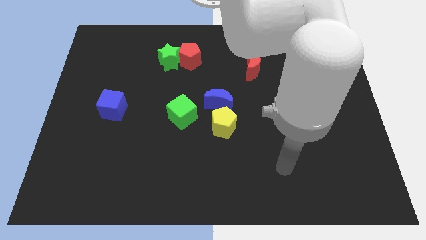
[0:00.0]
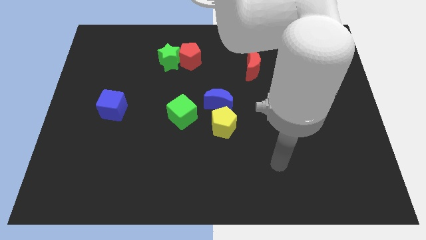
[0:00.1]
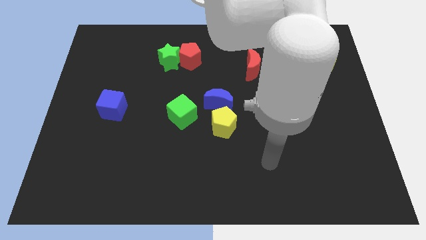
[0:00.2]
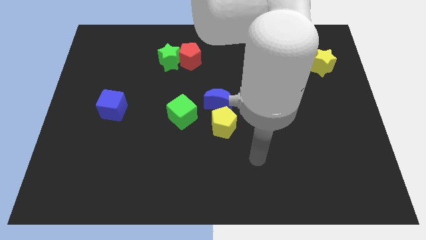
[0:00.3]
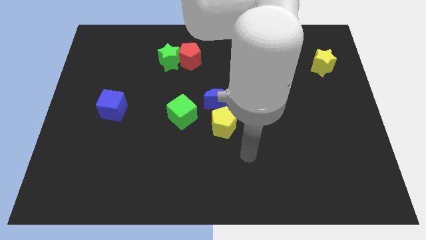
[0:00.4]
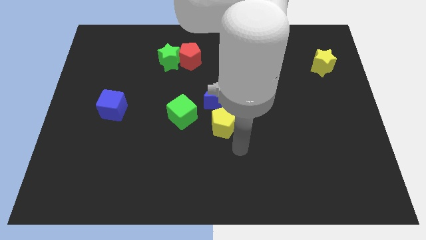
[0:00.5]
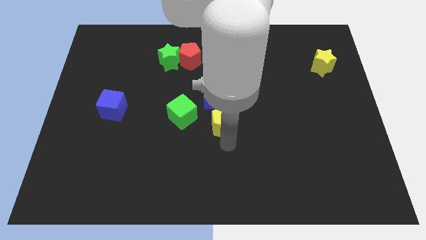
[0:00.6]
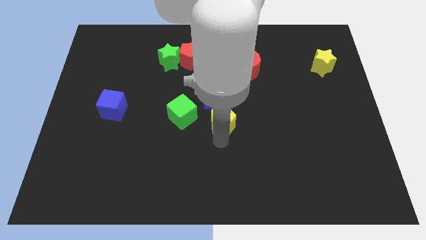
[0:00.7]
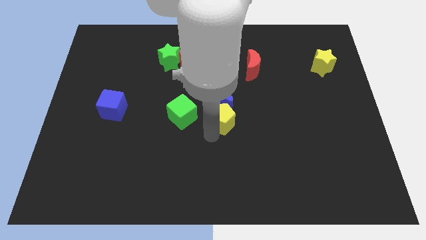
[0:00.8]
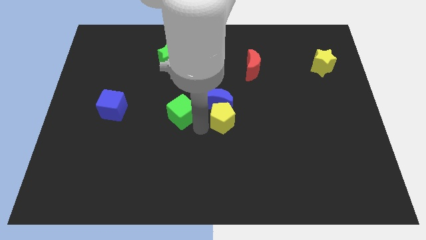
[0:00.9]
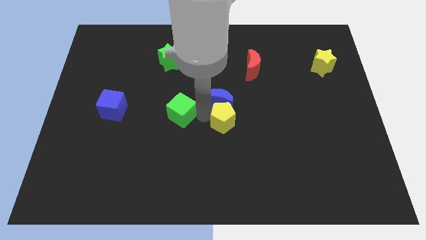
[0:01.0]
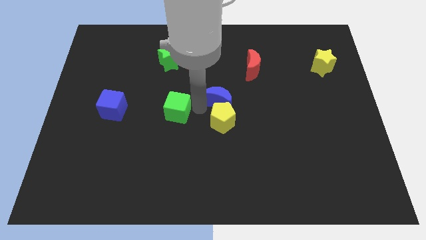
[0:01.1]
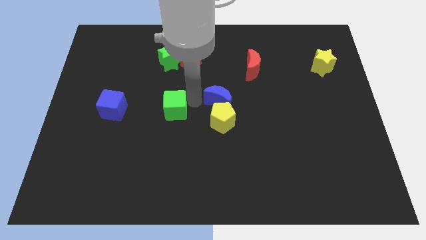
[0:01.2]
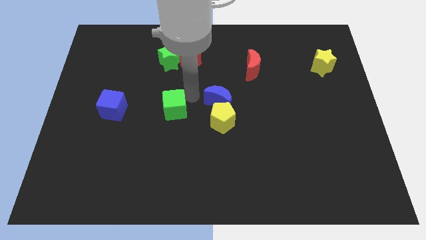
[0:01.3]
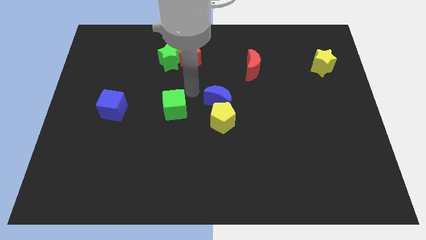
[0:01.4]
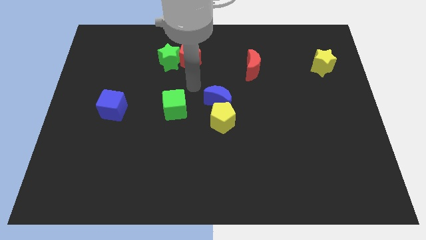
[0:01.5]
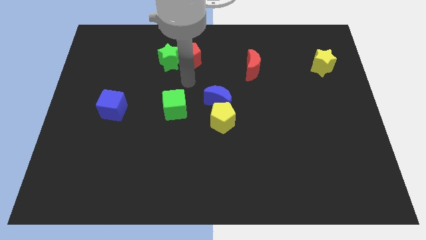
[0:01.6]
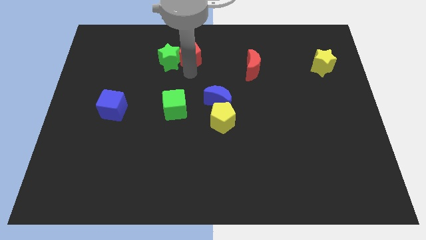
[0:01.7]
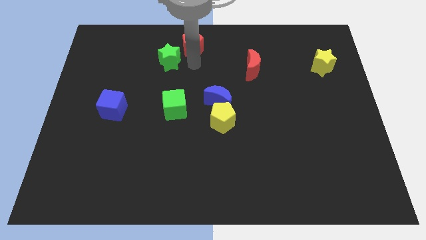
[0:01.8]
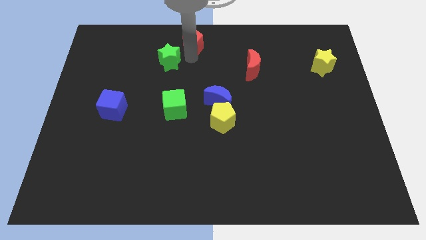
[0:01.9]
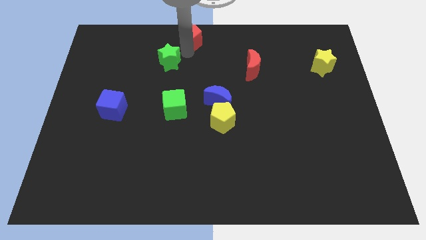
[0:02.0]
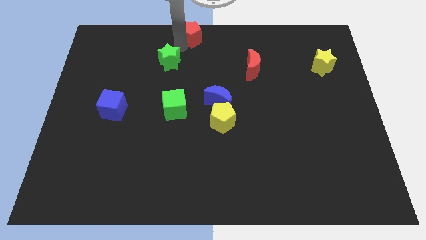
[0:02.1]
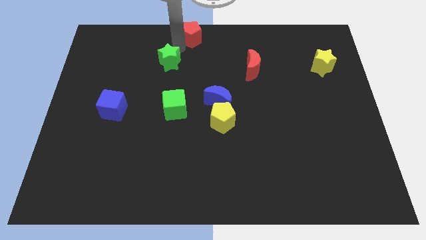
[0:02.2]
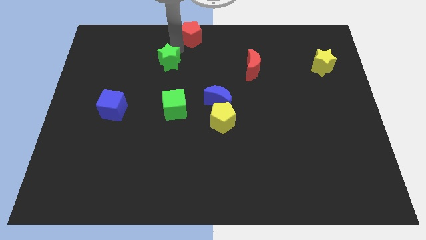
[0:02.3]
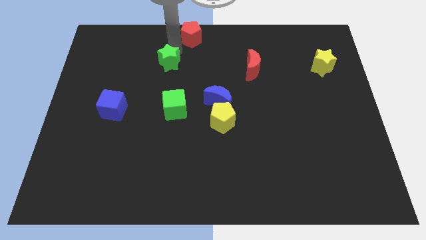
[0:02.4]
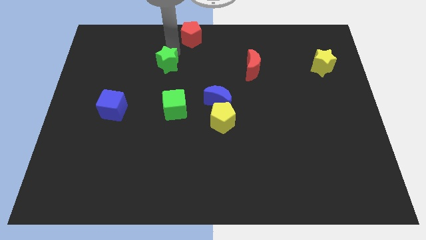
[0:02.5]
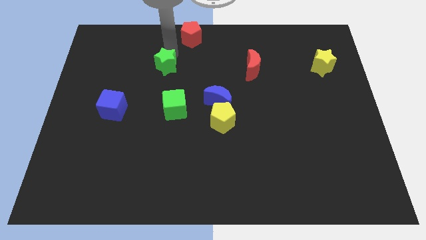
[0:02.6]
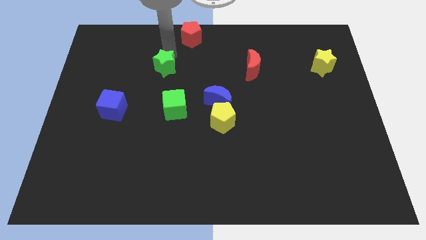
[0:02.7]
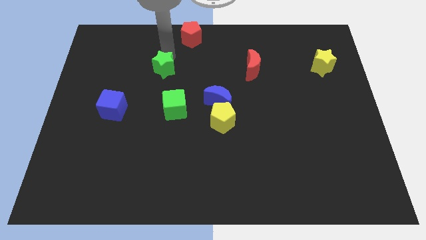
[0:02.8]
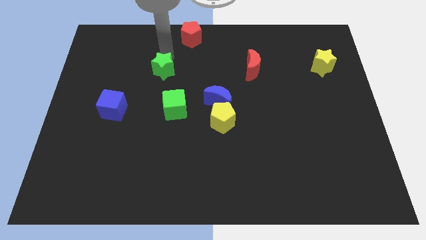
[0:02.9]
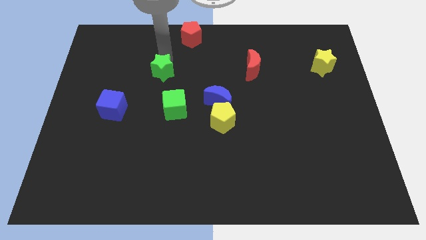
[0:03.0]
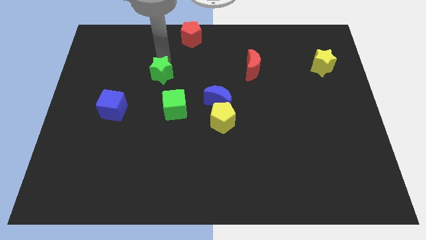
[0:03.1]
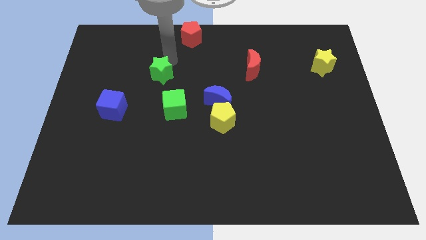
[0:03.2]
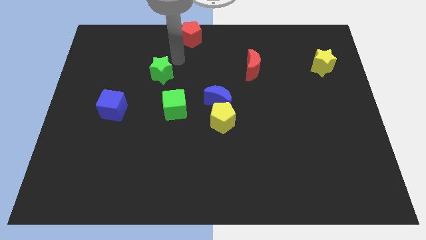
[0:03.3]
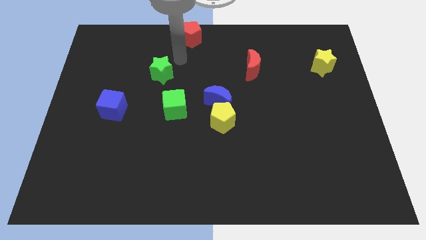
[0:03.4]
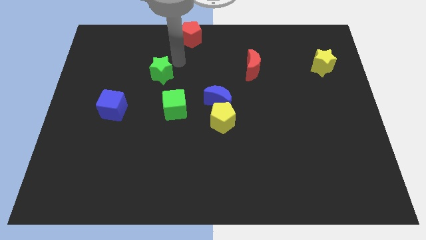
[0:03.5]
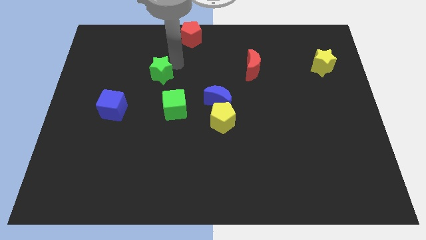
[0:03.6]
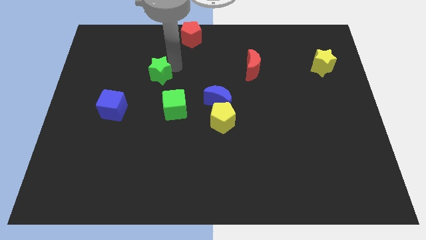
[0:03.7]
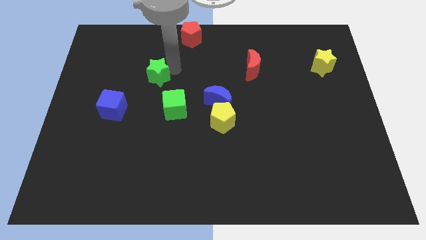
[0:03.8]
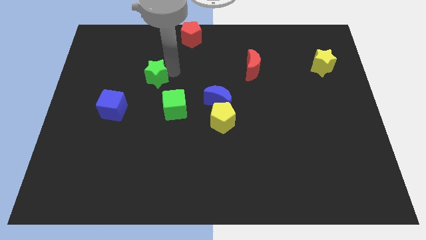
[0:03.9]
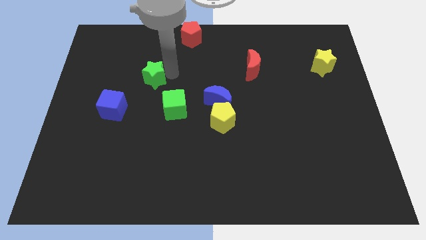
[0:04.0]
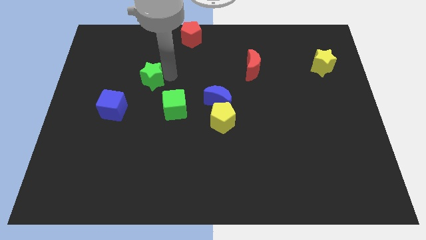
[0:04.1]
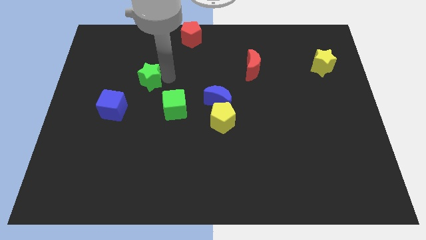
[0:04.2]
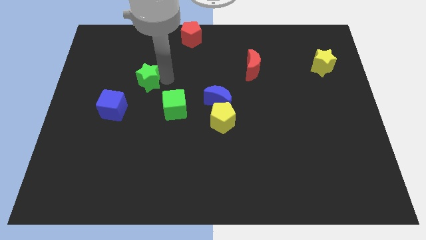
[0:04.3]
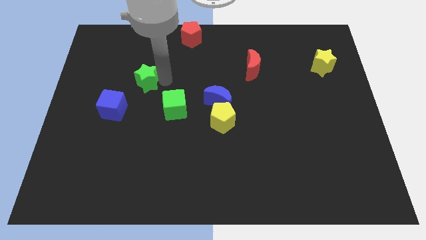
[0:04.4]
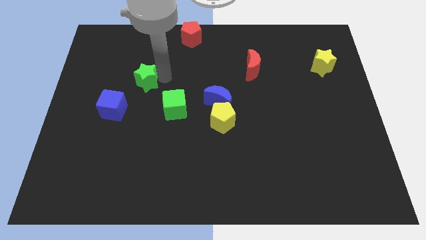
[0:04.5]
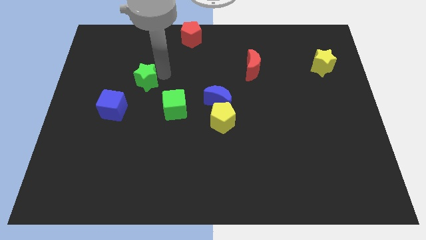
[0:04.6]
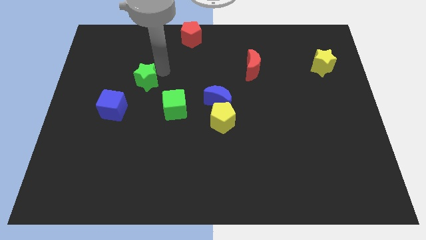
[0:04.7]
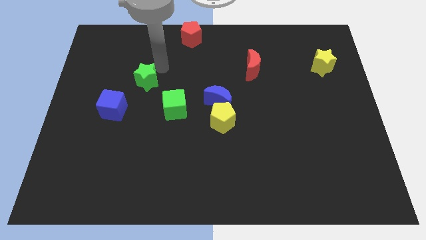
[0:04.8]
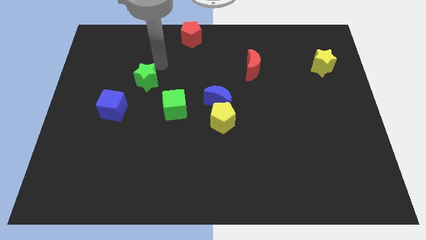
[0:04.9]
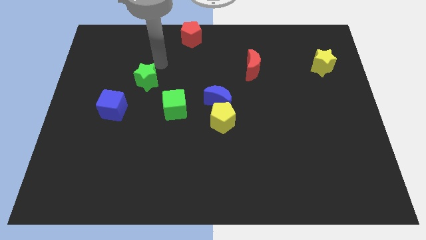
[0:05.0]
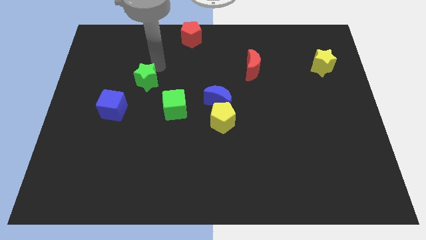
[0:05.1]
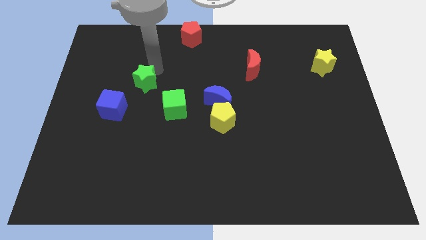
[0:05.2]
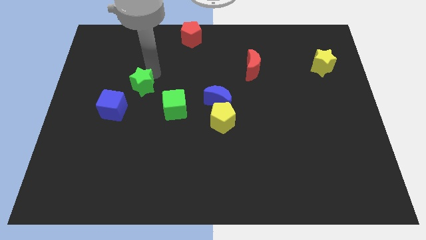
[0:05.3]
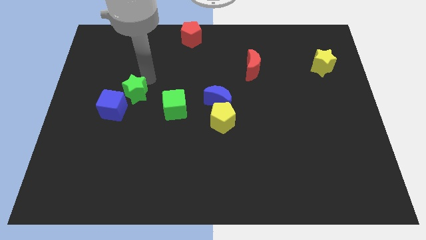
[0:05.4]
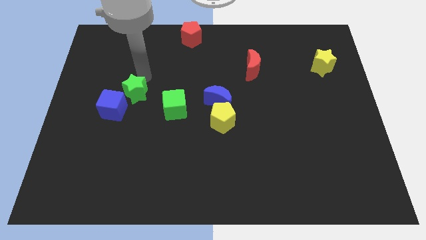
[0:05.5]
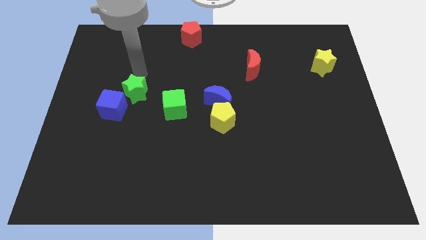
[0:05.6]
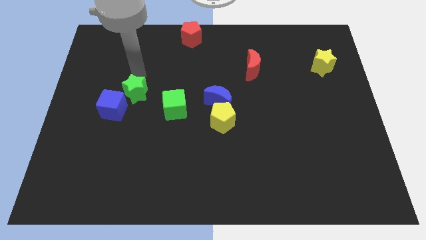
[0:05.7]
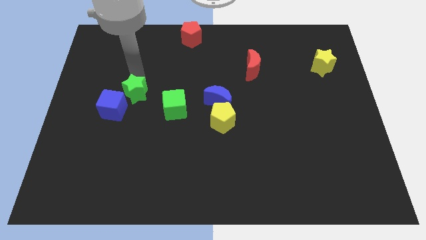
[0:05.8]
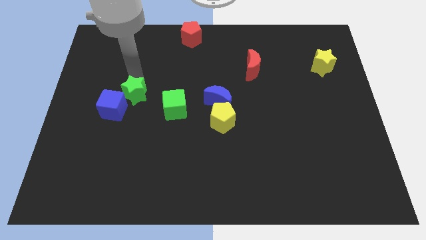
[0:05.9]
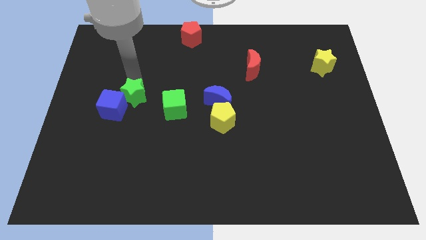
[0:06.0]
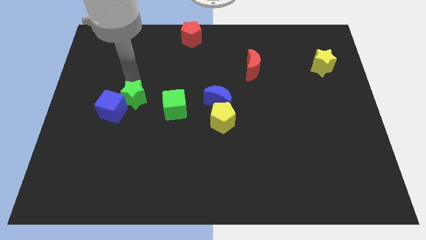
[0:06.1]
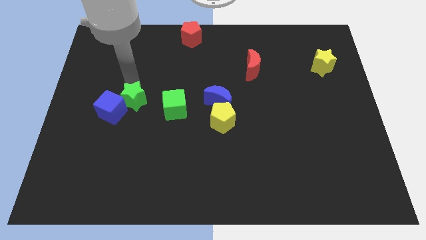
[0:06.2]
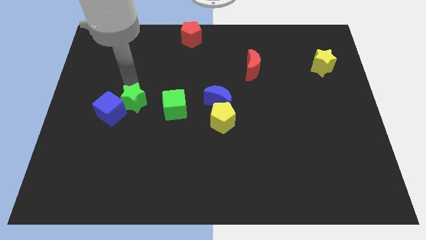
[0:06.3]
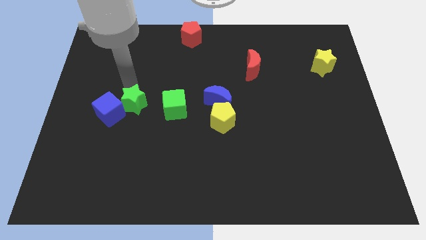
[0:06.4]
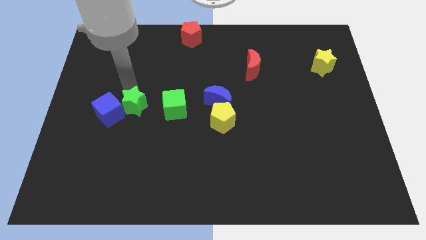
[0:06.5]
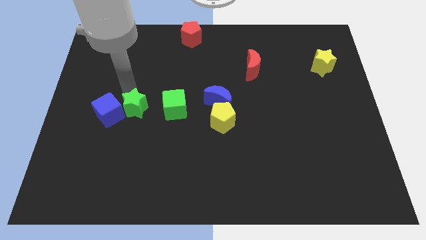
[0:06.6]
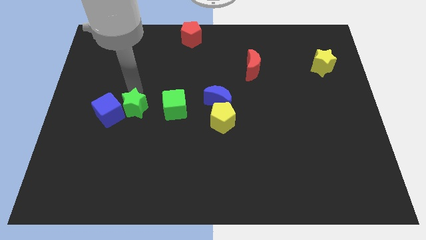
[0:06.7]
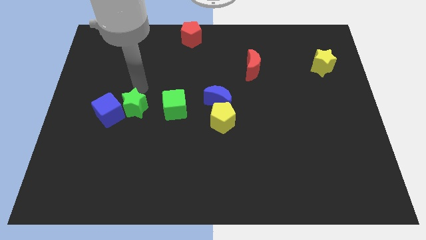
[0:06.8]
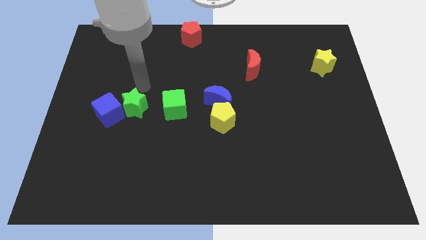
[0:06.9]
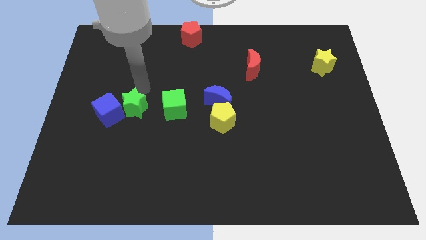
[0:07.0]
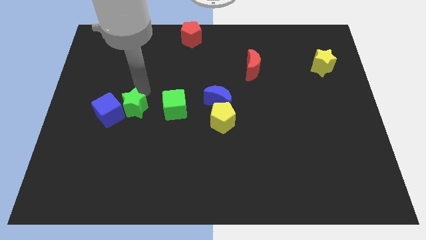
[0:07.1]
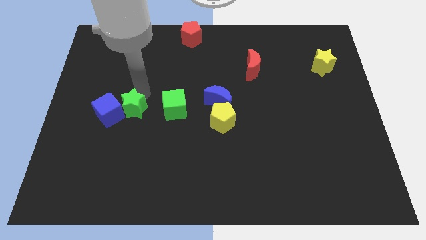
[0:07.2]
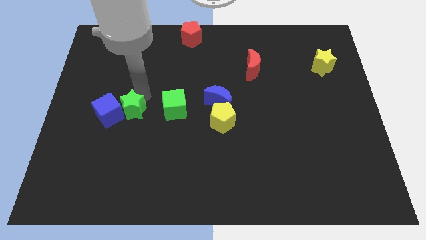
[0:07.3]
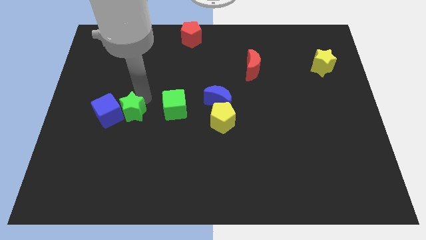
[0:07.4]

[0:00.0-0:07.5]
push the green star diagonally down and to the right of the blue cube
